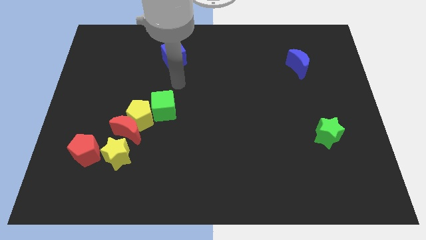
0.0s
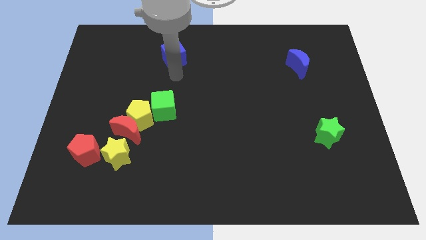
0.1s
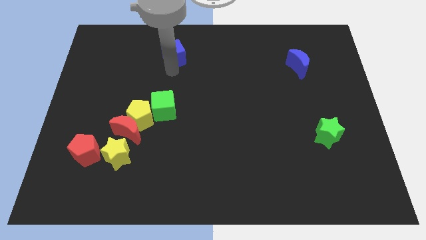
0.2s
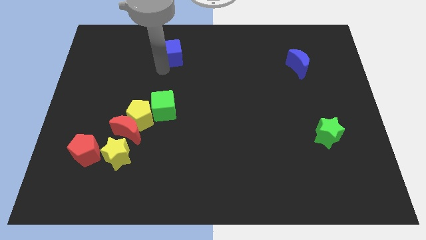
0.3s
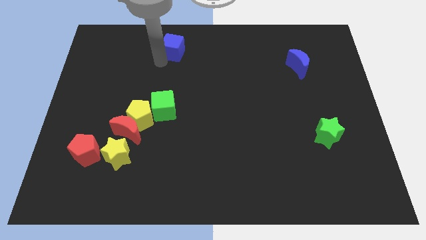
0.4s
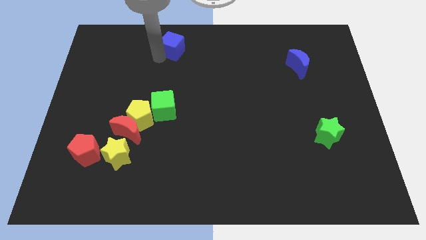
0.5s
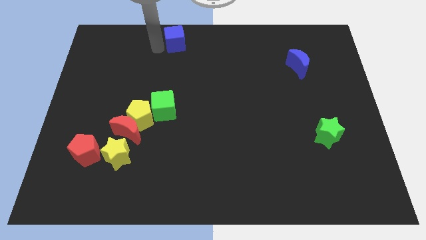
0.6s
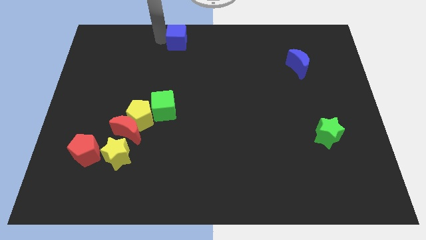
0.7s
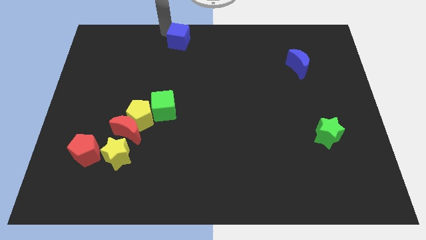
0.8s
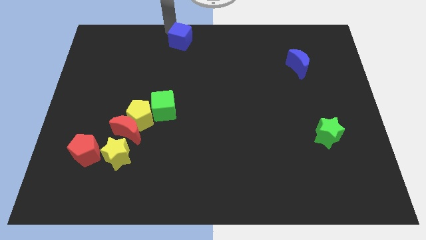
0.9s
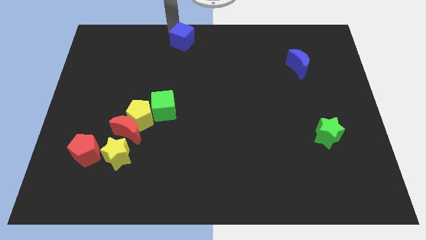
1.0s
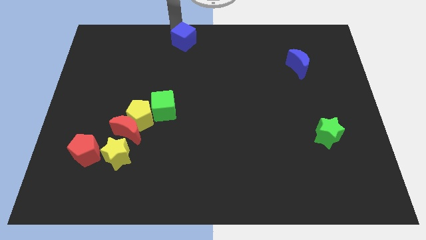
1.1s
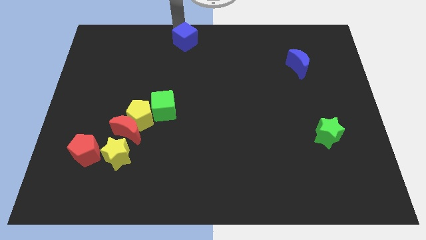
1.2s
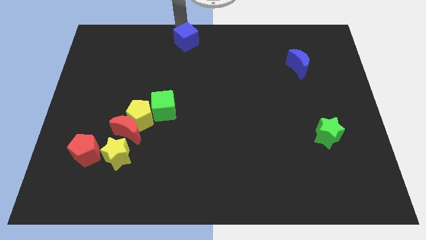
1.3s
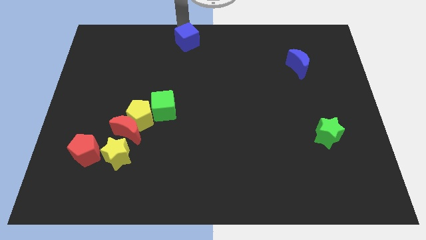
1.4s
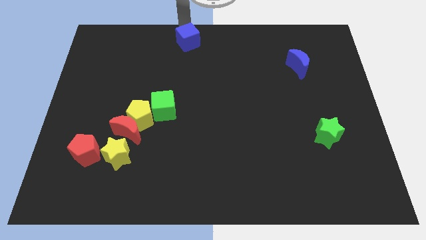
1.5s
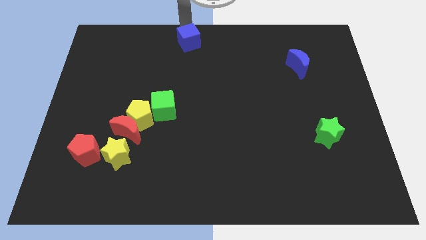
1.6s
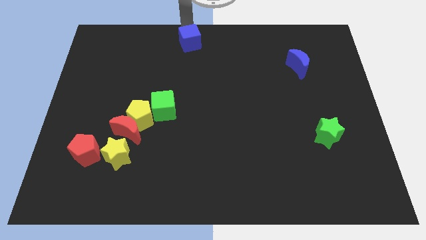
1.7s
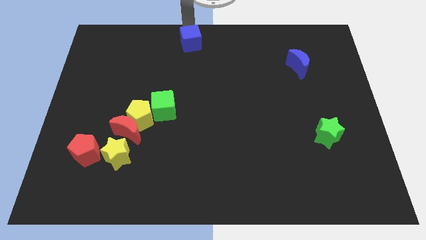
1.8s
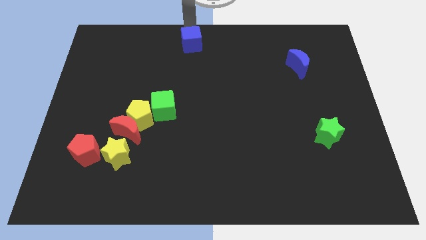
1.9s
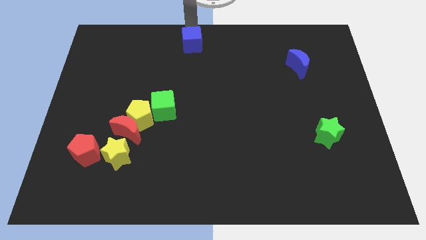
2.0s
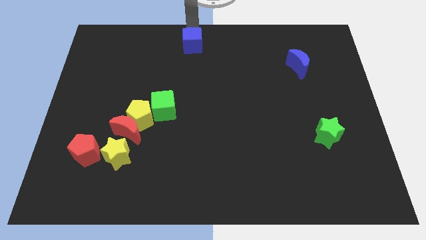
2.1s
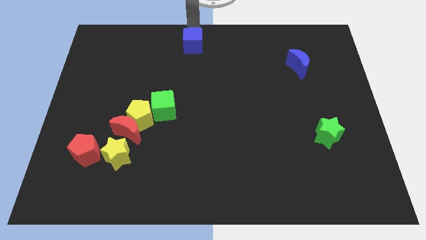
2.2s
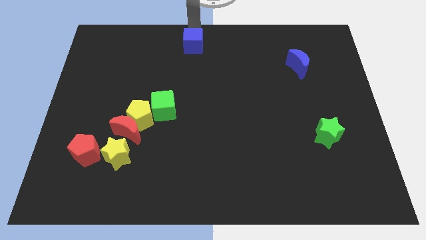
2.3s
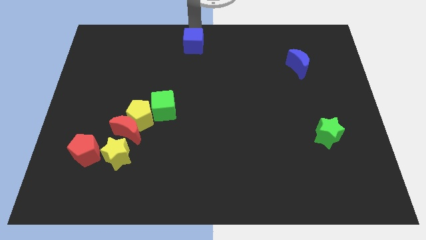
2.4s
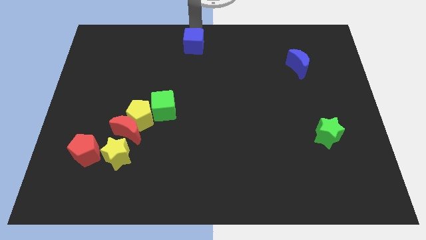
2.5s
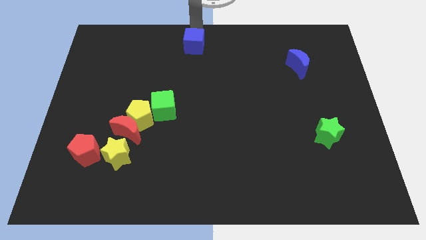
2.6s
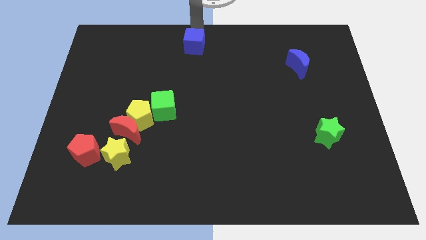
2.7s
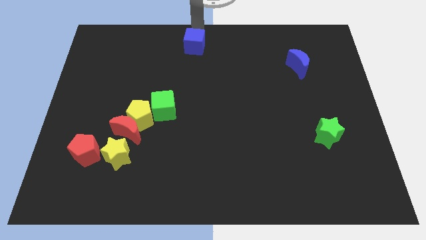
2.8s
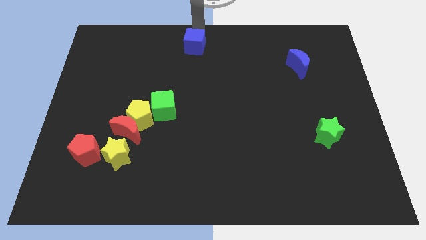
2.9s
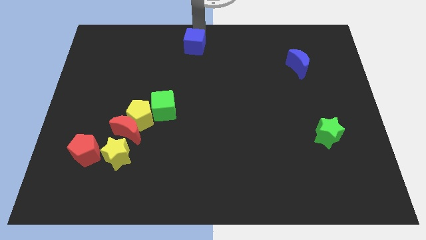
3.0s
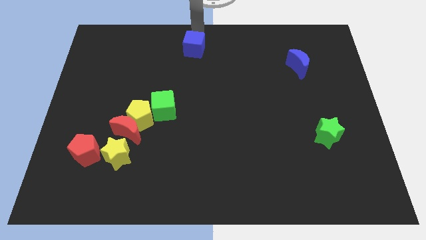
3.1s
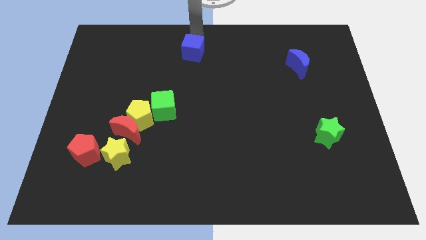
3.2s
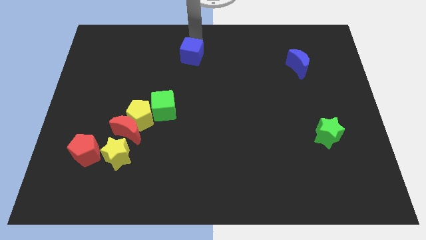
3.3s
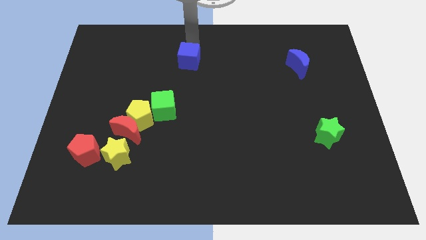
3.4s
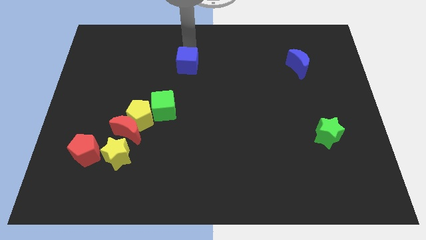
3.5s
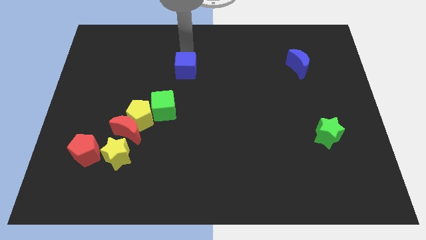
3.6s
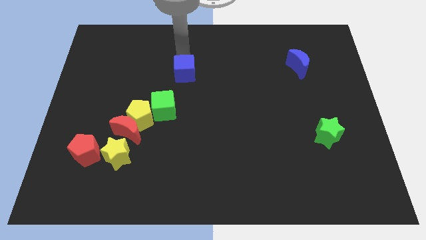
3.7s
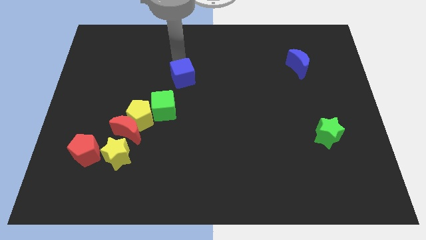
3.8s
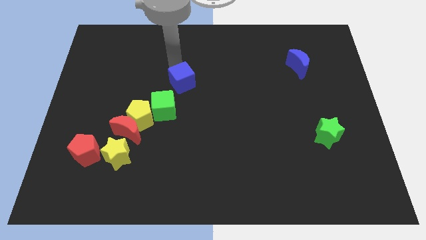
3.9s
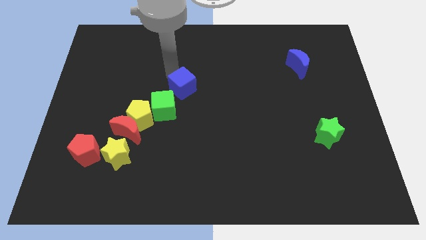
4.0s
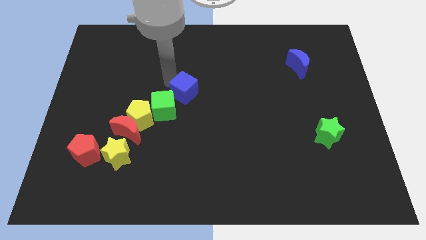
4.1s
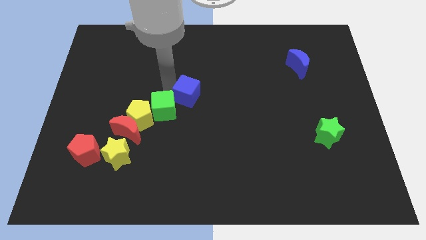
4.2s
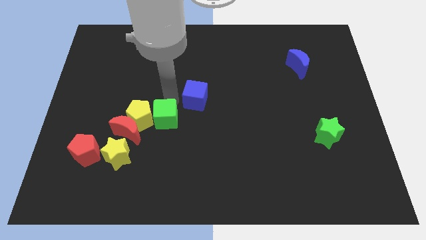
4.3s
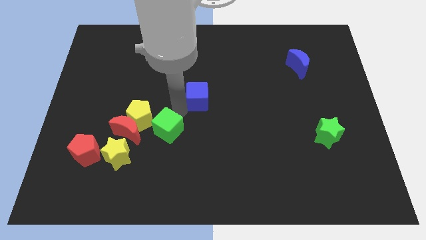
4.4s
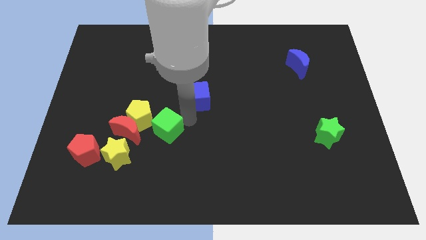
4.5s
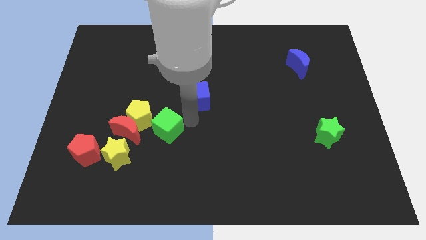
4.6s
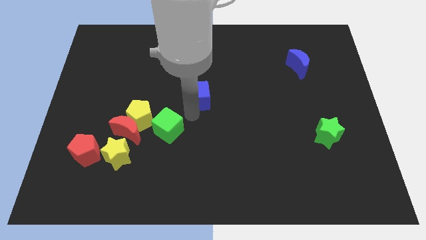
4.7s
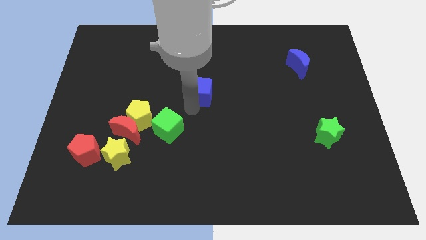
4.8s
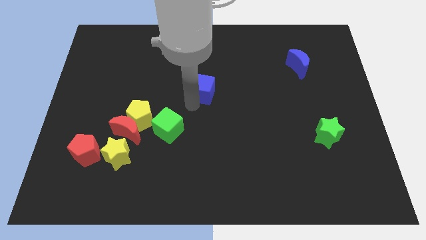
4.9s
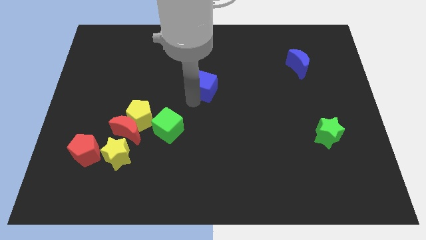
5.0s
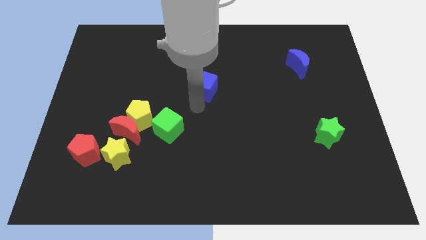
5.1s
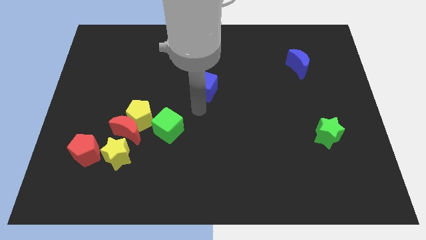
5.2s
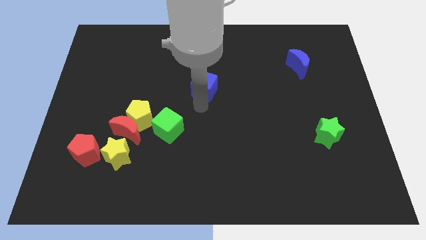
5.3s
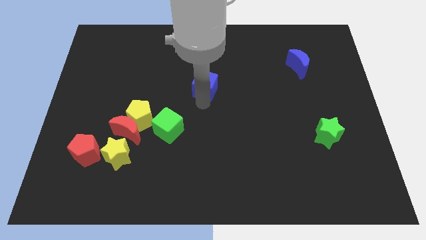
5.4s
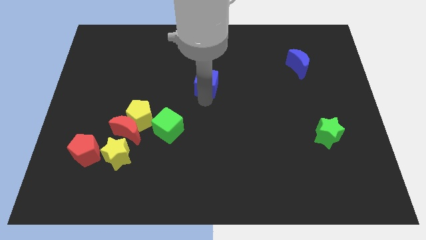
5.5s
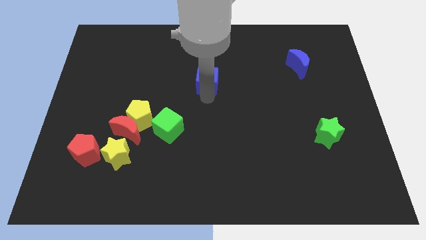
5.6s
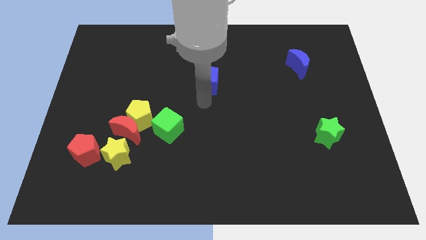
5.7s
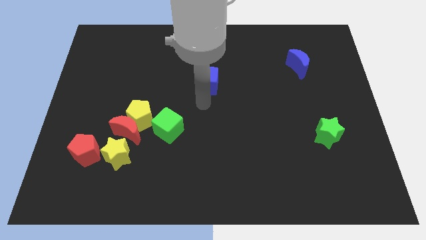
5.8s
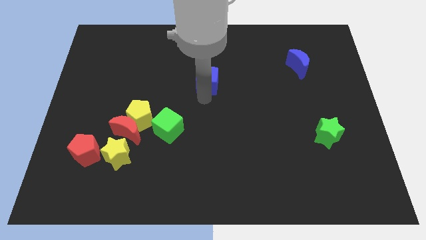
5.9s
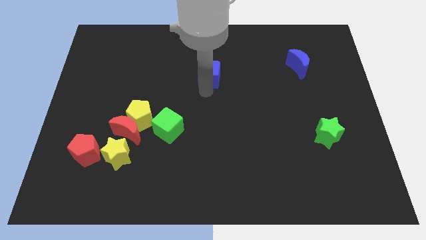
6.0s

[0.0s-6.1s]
push the blue cube a little bit to the right

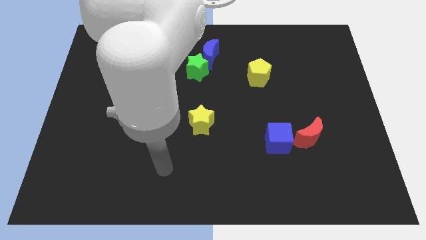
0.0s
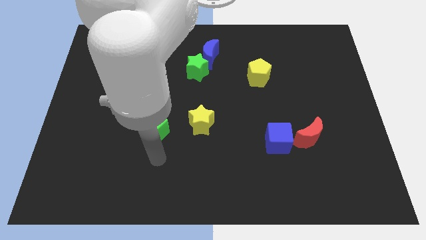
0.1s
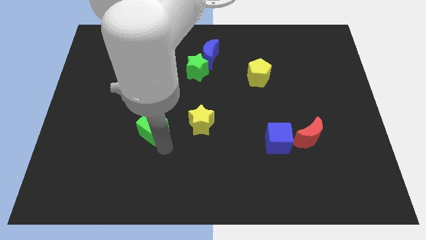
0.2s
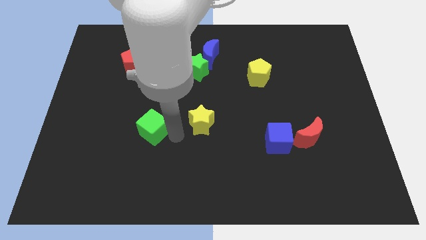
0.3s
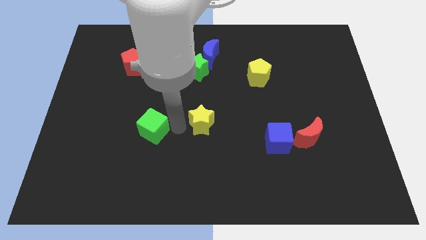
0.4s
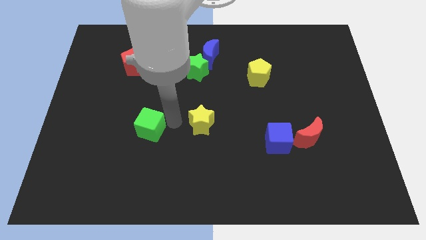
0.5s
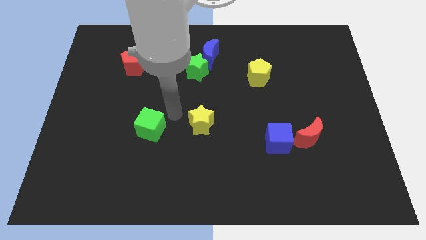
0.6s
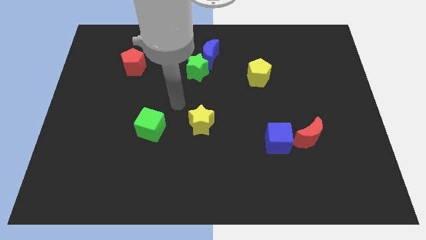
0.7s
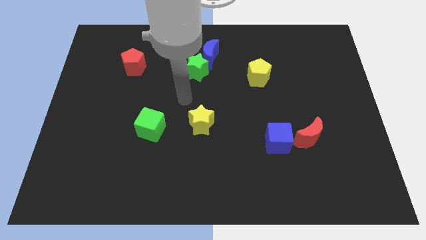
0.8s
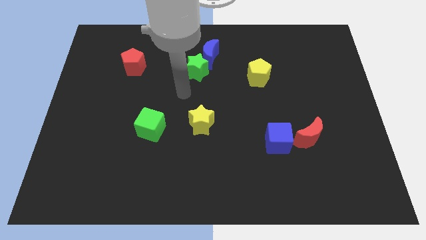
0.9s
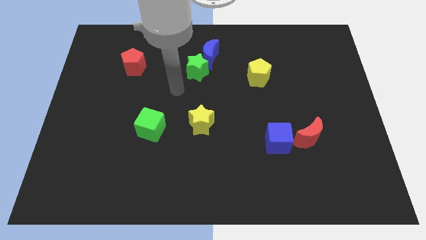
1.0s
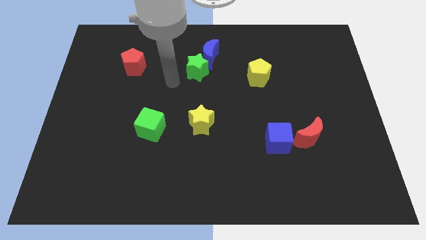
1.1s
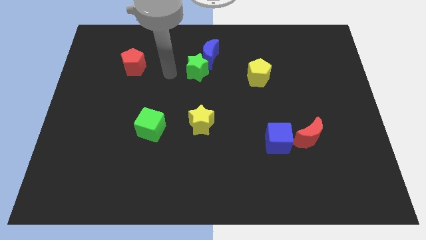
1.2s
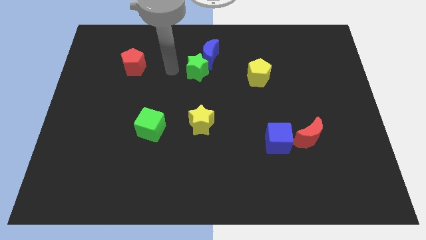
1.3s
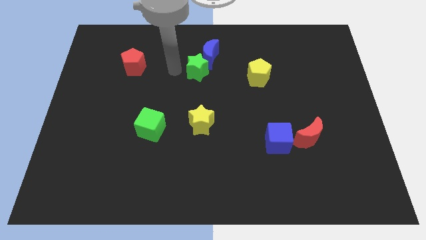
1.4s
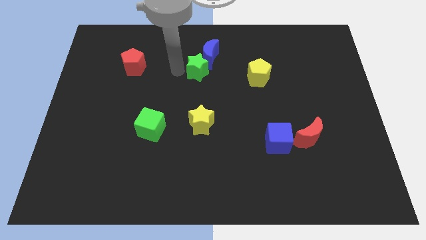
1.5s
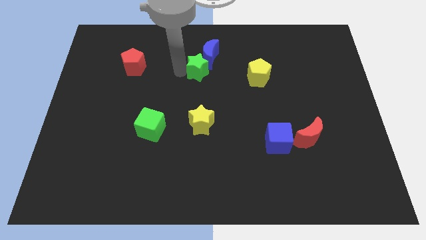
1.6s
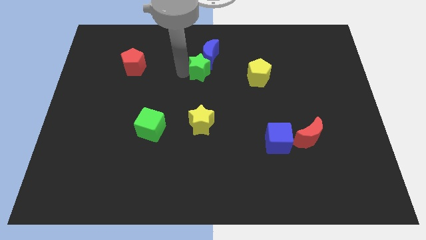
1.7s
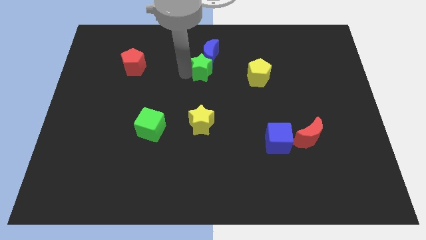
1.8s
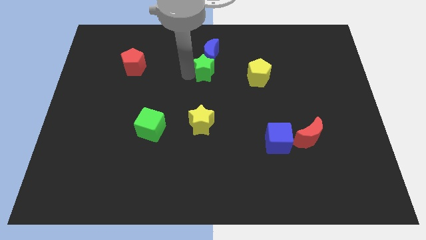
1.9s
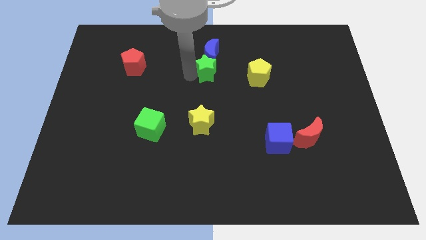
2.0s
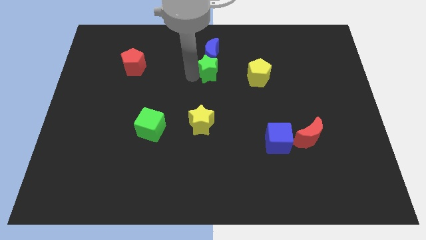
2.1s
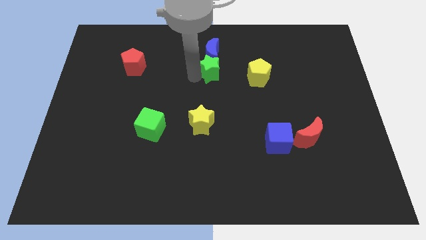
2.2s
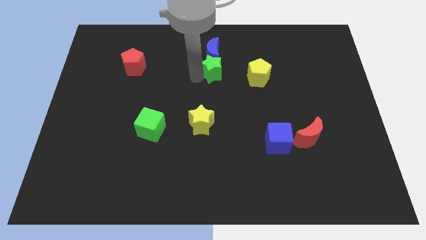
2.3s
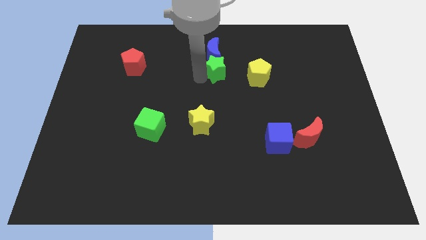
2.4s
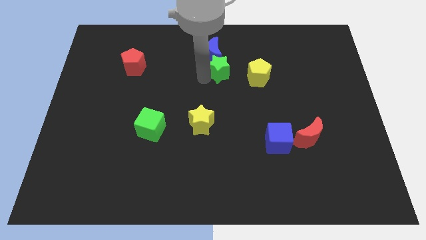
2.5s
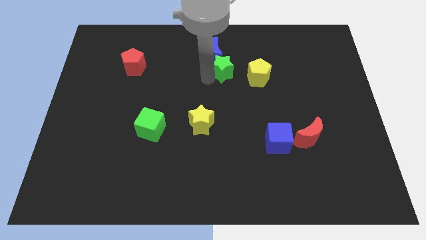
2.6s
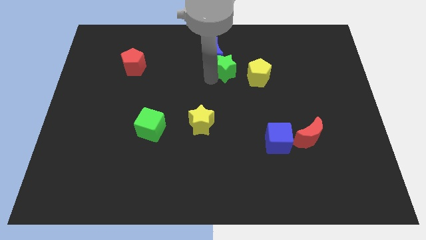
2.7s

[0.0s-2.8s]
slide the green star slightly right
